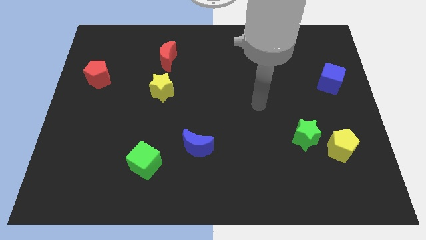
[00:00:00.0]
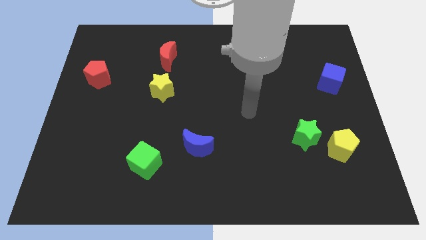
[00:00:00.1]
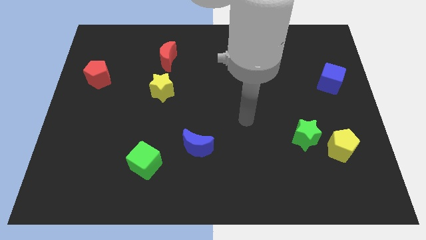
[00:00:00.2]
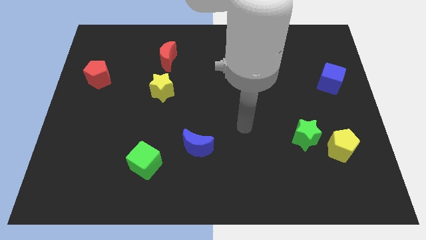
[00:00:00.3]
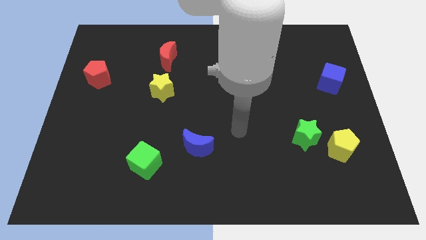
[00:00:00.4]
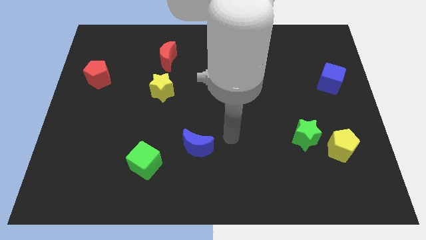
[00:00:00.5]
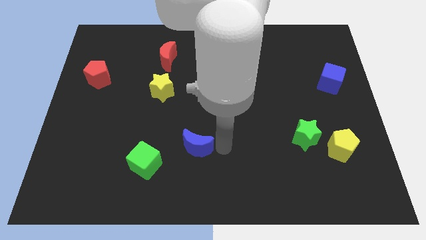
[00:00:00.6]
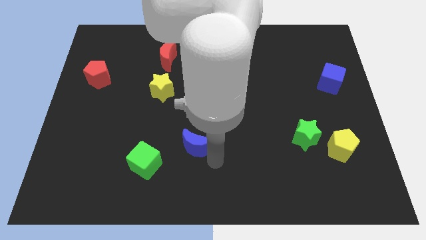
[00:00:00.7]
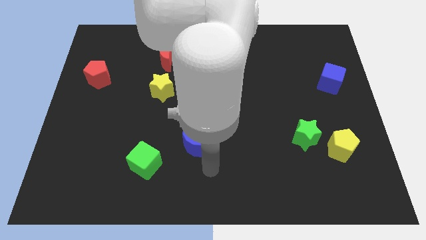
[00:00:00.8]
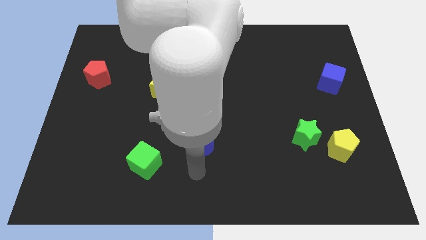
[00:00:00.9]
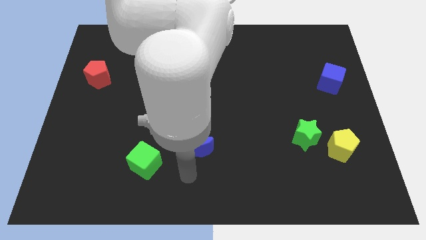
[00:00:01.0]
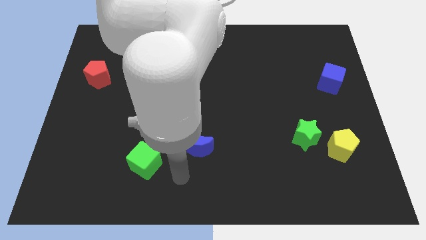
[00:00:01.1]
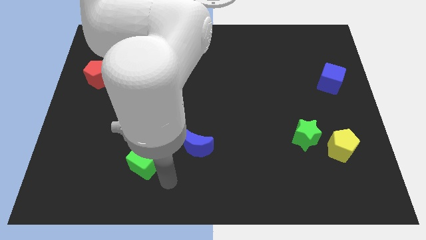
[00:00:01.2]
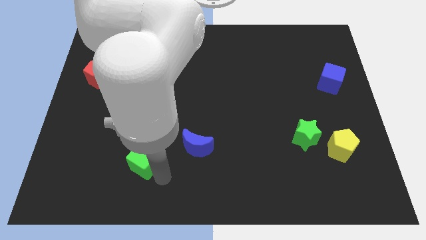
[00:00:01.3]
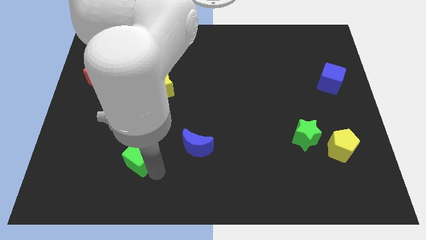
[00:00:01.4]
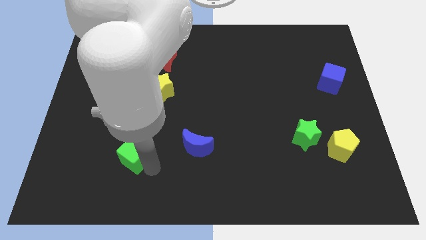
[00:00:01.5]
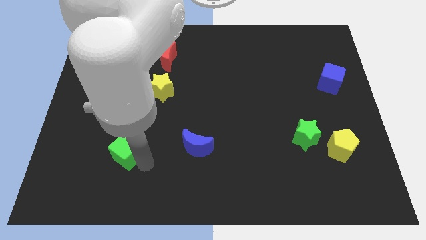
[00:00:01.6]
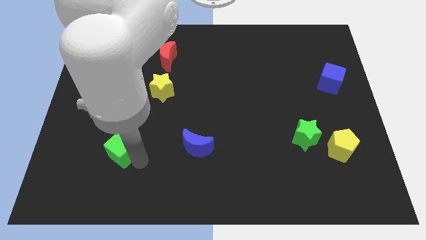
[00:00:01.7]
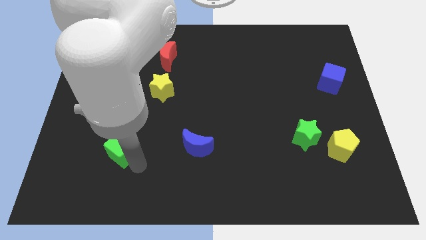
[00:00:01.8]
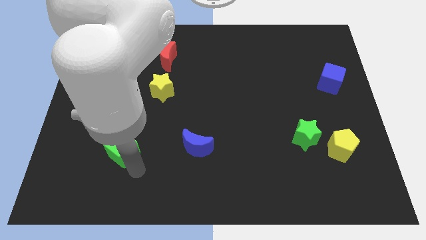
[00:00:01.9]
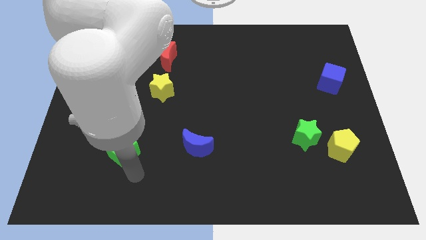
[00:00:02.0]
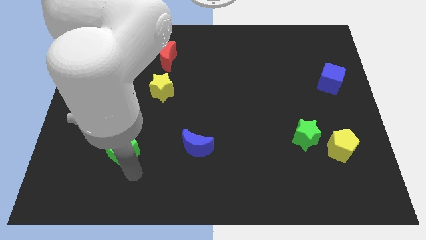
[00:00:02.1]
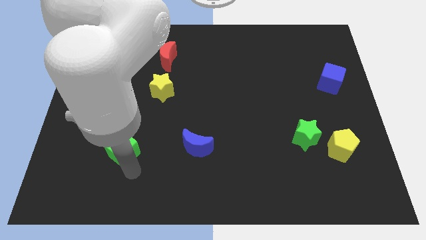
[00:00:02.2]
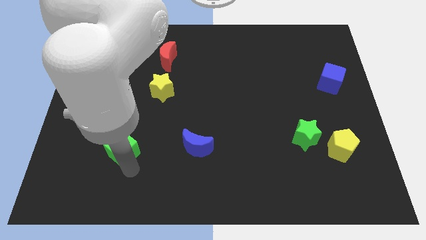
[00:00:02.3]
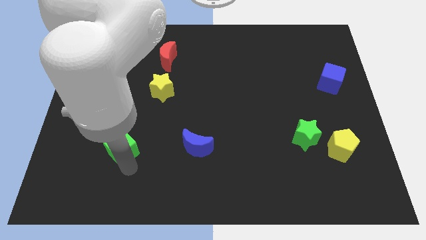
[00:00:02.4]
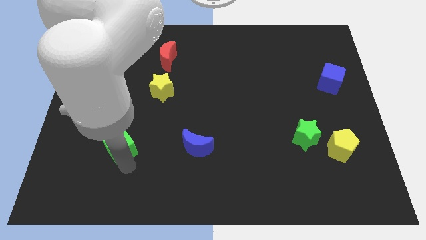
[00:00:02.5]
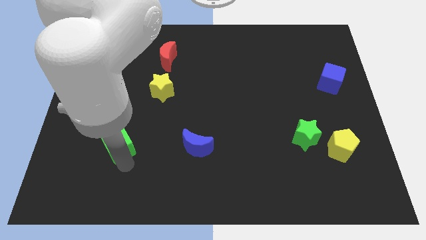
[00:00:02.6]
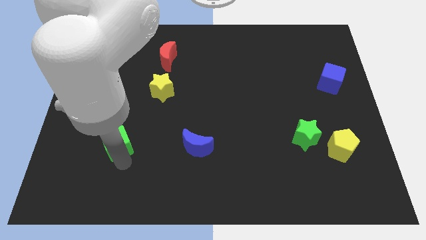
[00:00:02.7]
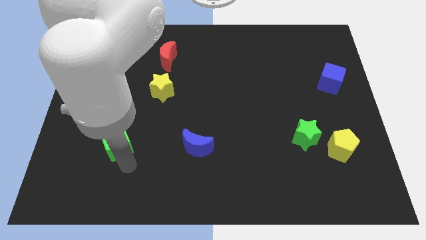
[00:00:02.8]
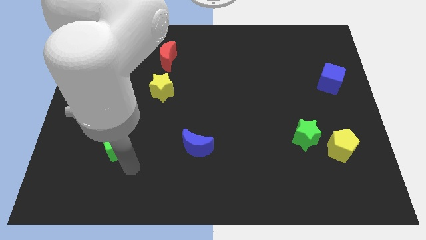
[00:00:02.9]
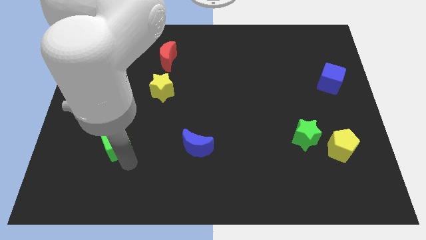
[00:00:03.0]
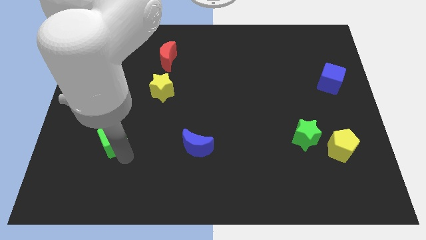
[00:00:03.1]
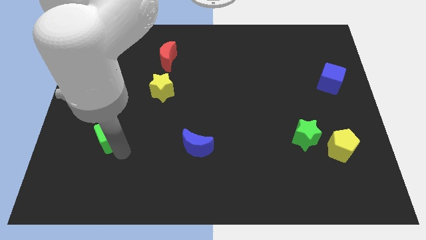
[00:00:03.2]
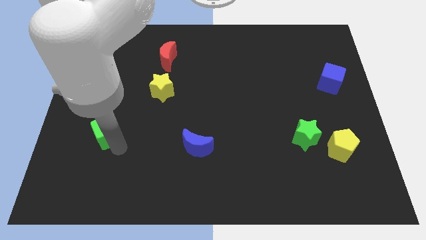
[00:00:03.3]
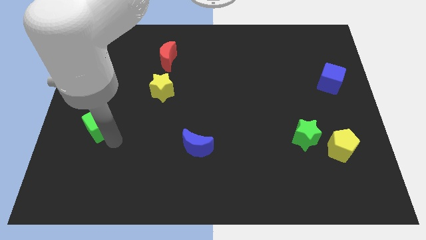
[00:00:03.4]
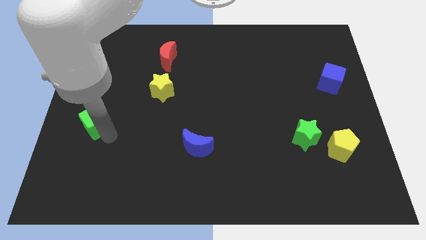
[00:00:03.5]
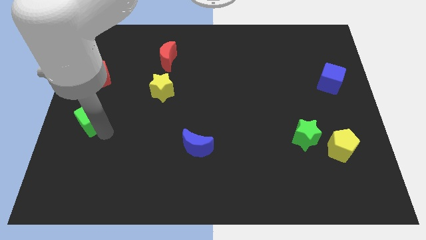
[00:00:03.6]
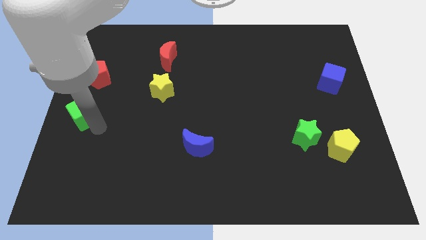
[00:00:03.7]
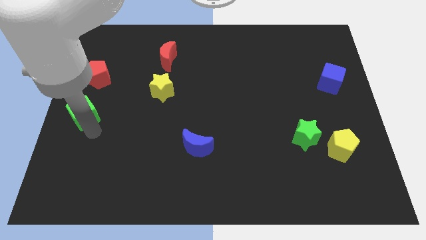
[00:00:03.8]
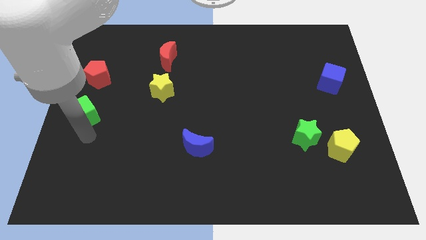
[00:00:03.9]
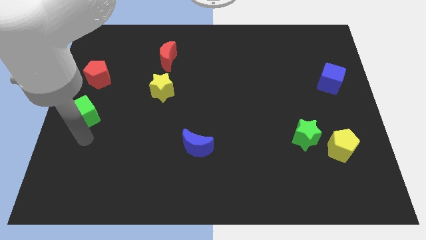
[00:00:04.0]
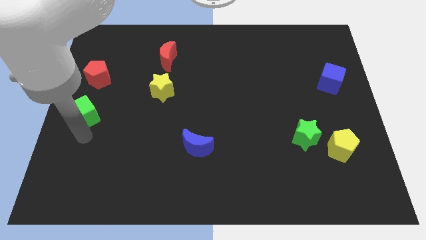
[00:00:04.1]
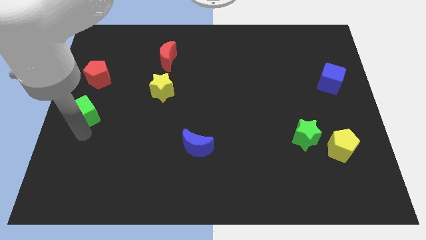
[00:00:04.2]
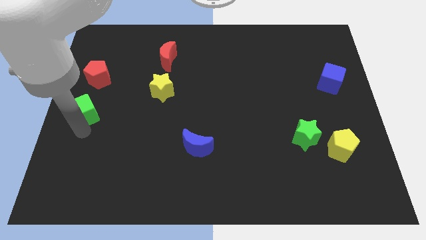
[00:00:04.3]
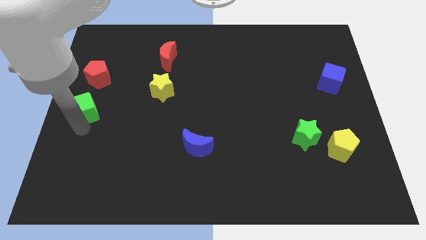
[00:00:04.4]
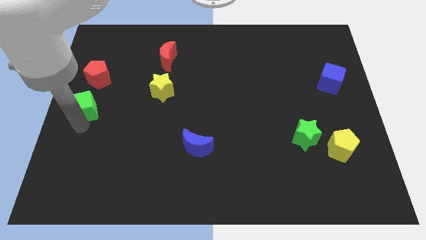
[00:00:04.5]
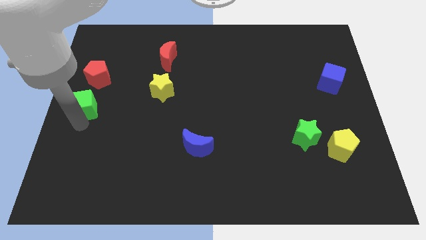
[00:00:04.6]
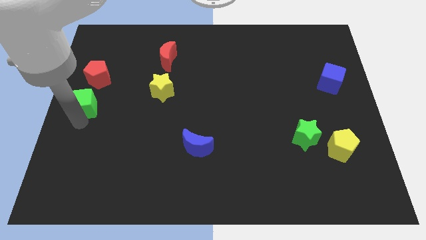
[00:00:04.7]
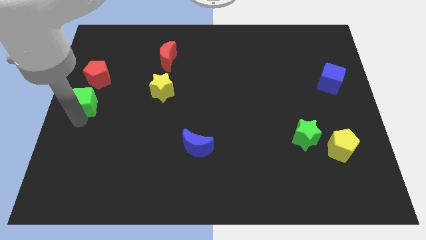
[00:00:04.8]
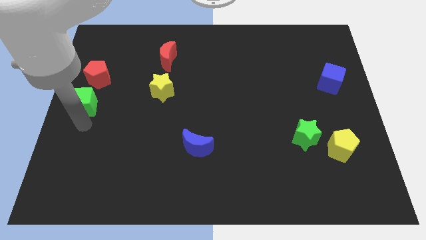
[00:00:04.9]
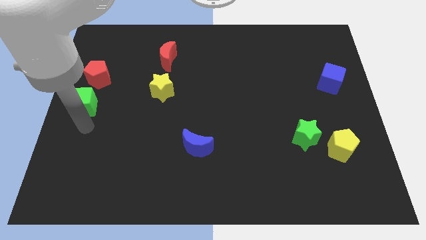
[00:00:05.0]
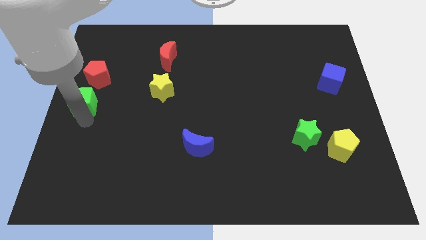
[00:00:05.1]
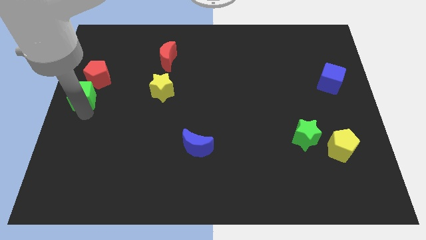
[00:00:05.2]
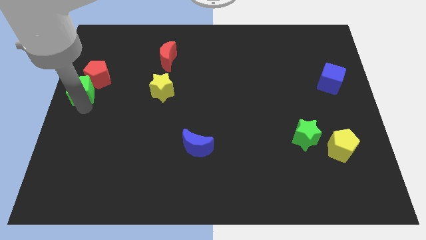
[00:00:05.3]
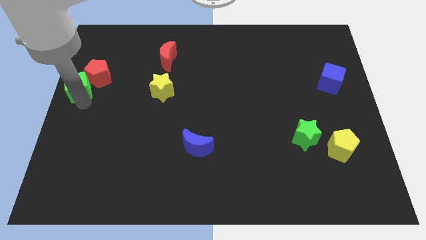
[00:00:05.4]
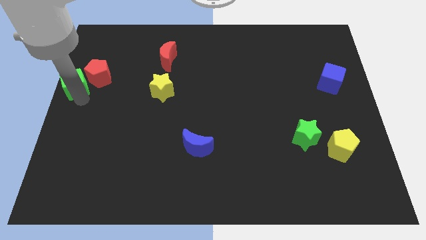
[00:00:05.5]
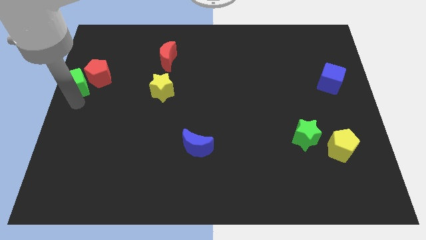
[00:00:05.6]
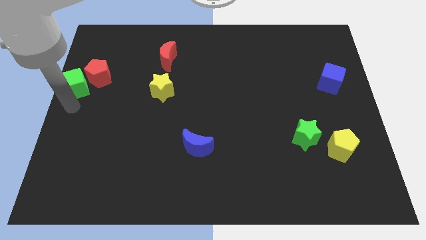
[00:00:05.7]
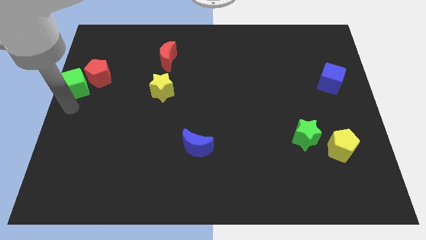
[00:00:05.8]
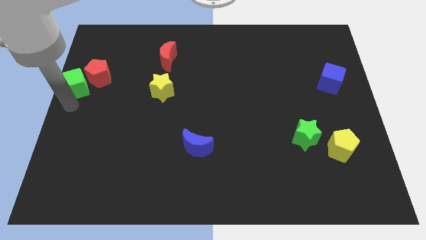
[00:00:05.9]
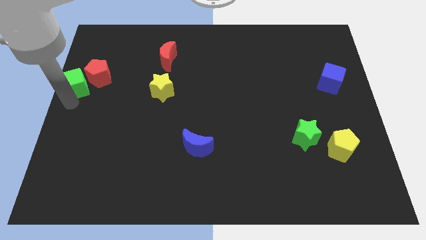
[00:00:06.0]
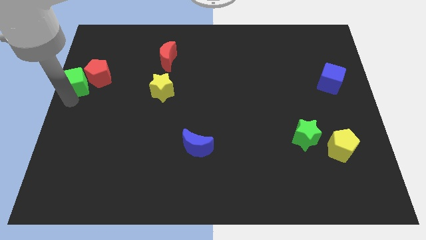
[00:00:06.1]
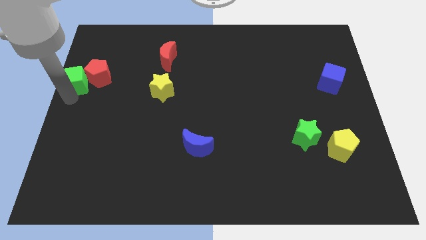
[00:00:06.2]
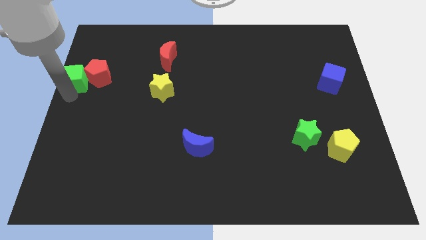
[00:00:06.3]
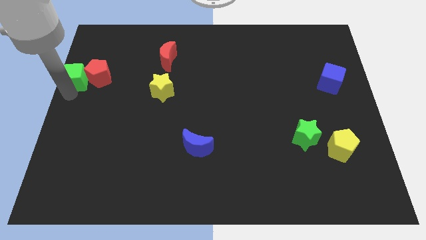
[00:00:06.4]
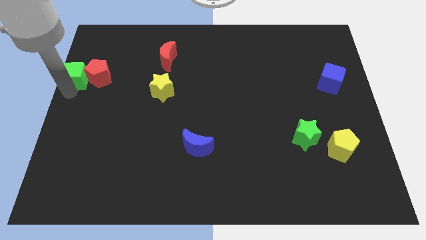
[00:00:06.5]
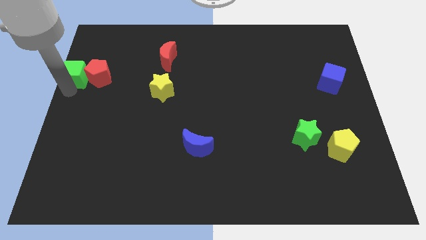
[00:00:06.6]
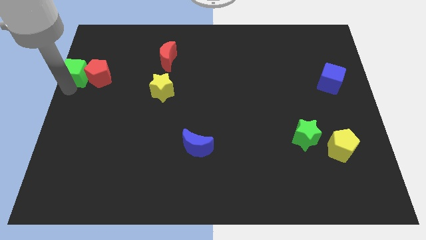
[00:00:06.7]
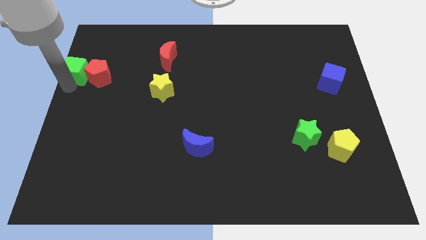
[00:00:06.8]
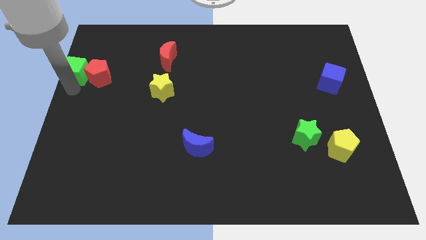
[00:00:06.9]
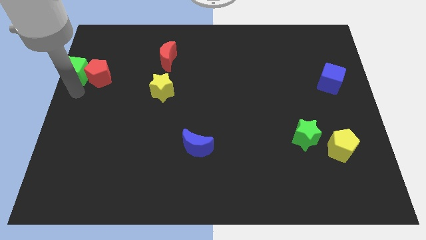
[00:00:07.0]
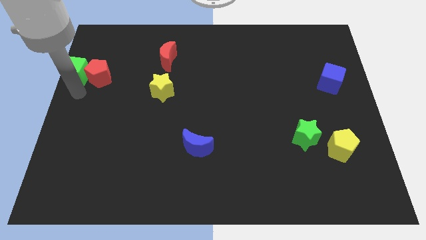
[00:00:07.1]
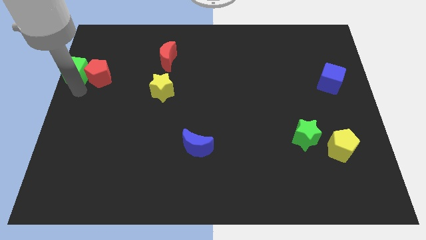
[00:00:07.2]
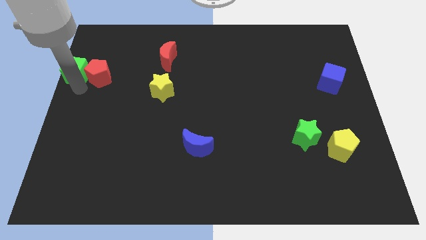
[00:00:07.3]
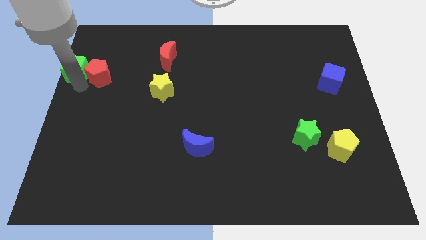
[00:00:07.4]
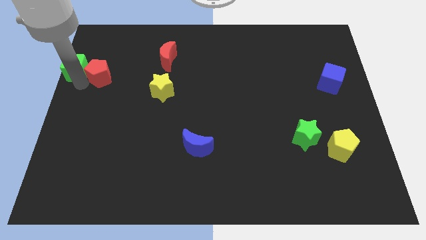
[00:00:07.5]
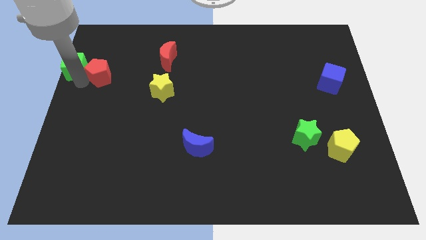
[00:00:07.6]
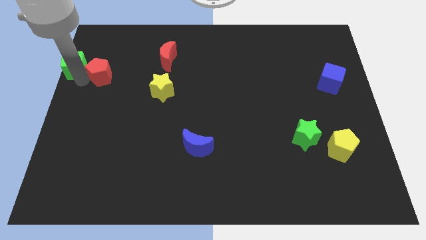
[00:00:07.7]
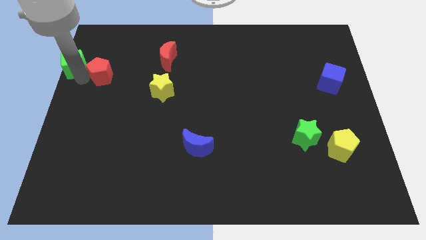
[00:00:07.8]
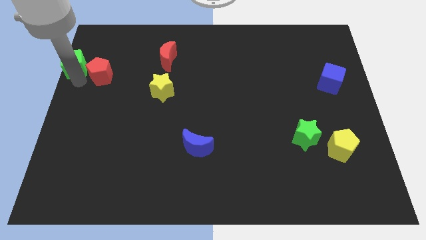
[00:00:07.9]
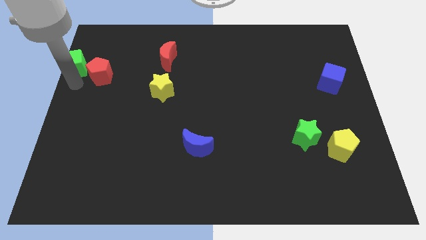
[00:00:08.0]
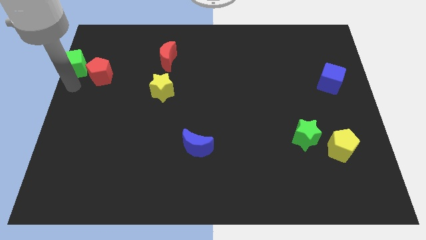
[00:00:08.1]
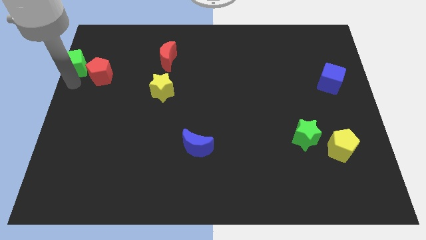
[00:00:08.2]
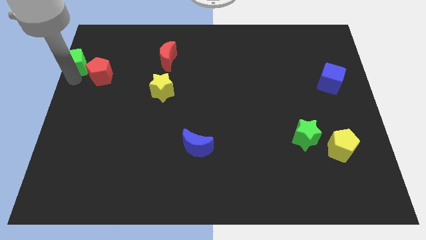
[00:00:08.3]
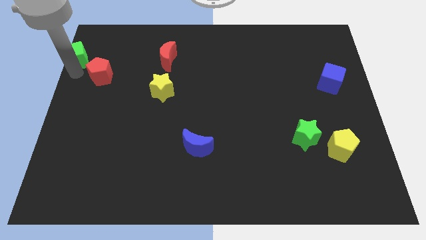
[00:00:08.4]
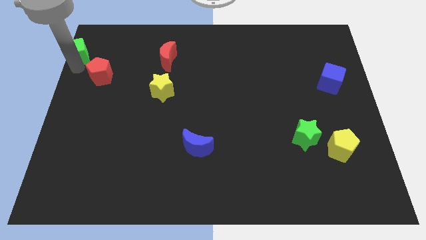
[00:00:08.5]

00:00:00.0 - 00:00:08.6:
push the green cube to the top left of the board
